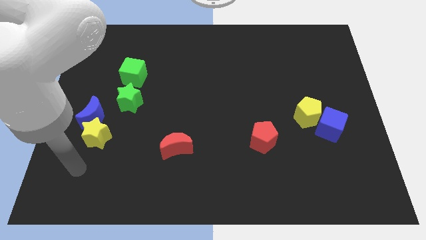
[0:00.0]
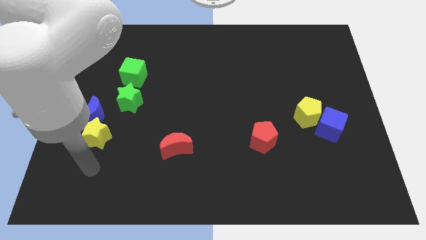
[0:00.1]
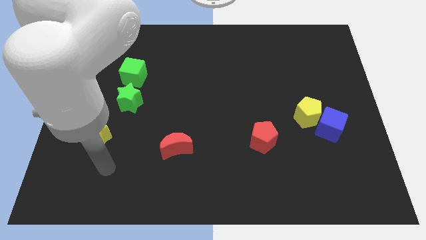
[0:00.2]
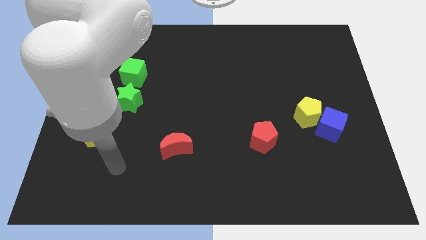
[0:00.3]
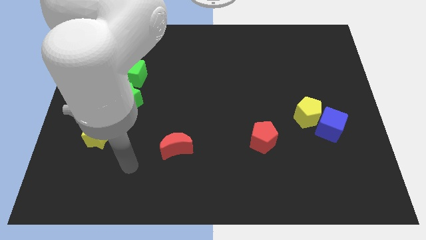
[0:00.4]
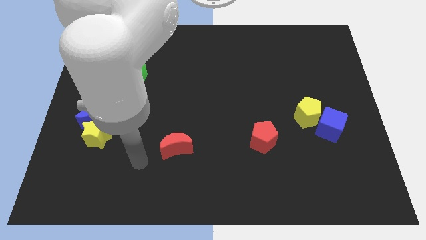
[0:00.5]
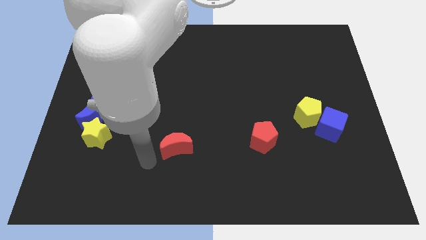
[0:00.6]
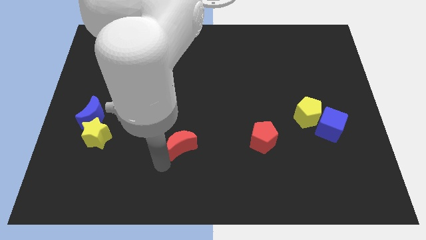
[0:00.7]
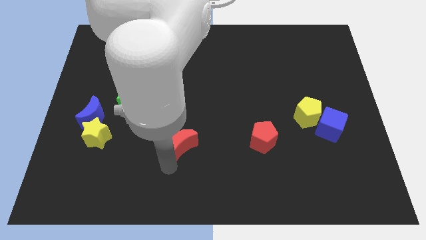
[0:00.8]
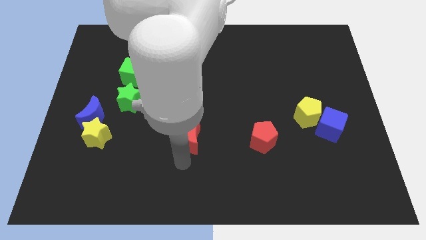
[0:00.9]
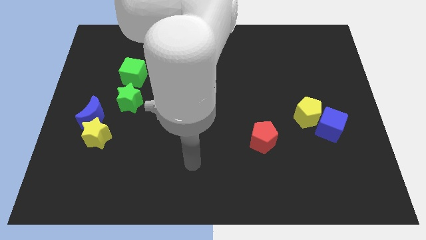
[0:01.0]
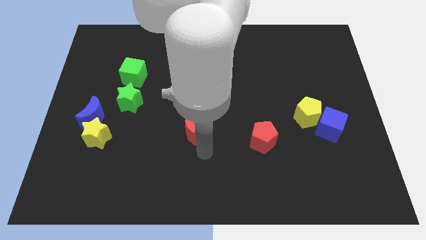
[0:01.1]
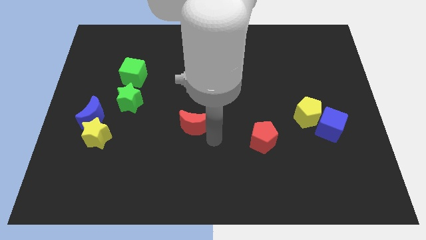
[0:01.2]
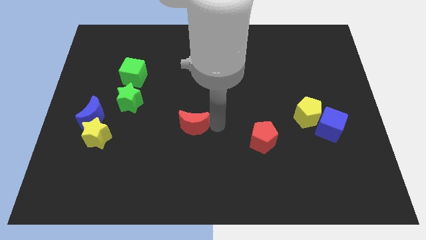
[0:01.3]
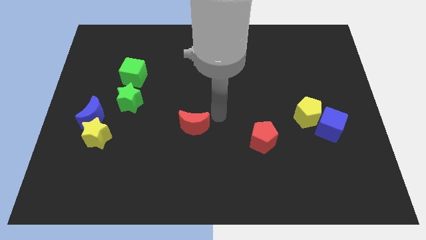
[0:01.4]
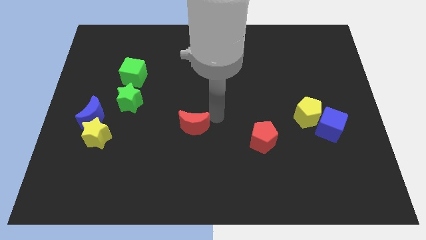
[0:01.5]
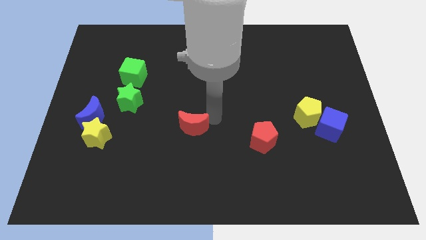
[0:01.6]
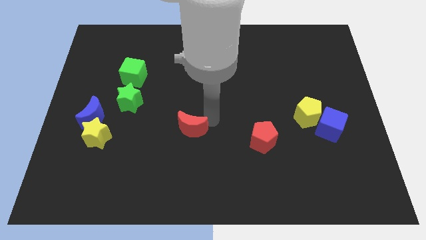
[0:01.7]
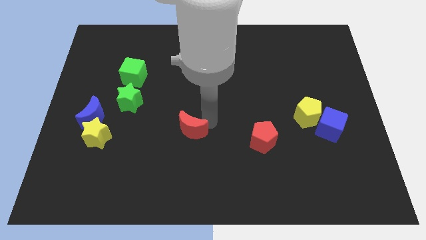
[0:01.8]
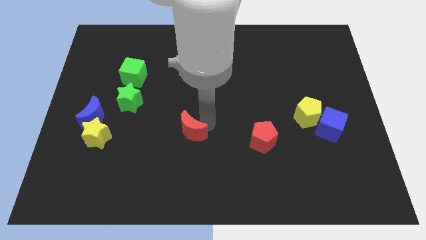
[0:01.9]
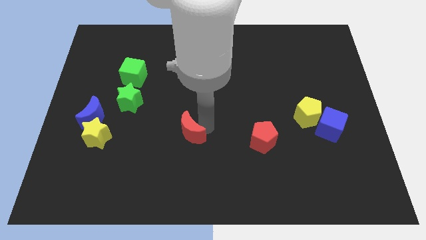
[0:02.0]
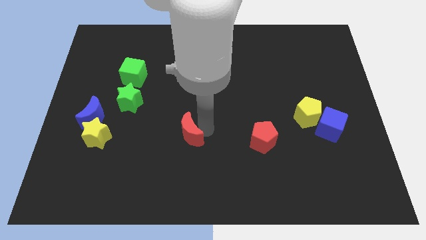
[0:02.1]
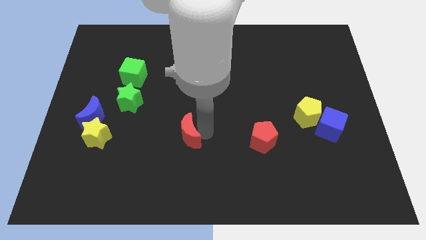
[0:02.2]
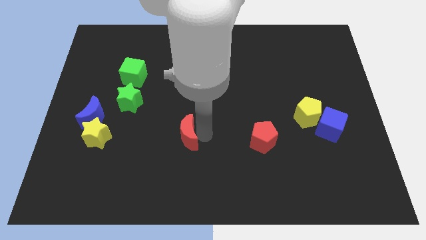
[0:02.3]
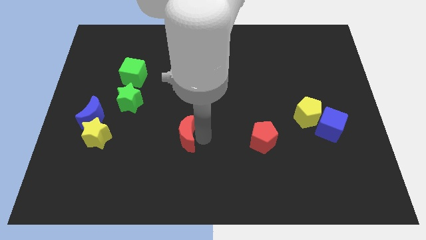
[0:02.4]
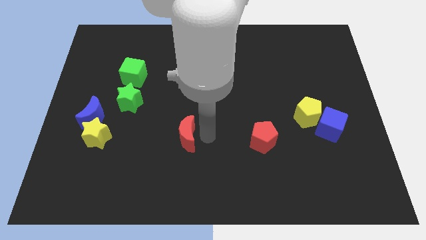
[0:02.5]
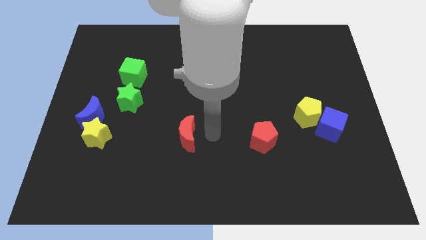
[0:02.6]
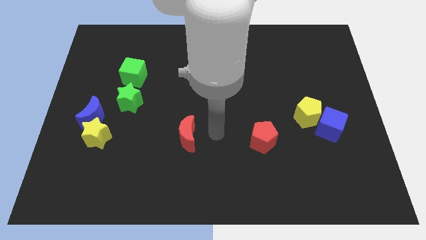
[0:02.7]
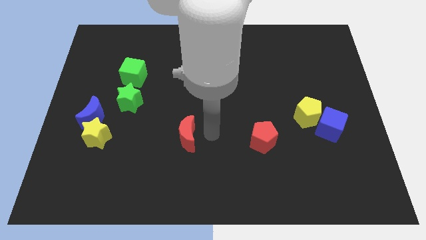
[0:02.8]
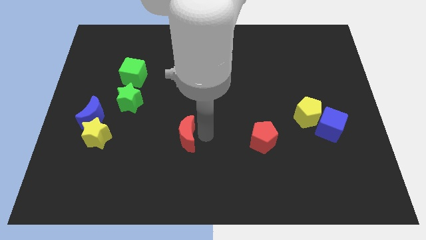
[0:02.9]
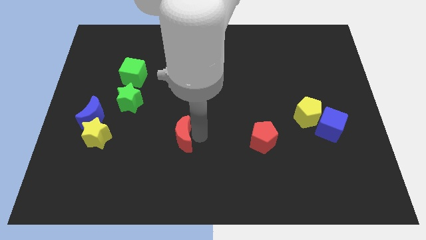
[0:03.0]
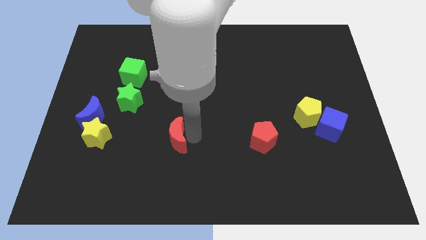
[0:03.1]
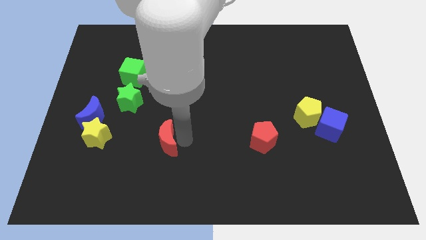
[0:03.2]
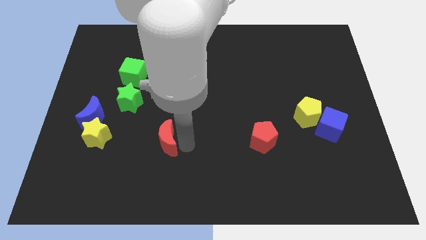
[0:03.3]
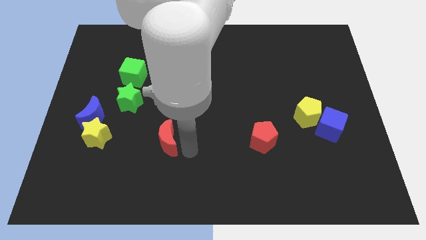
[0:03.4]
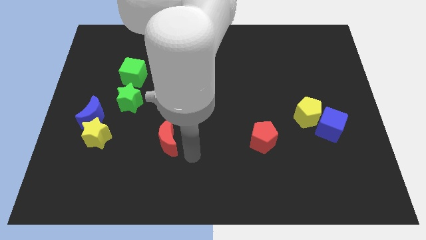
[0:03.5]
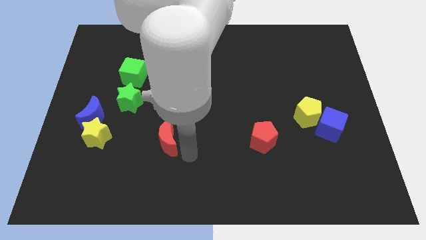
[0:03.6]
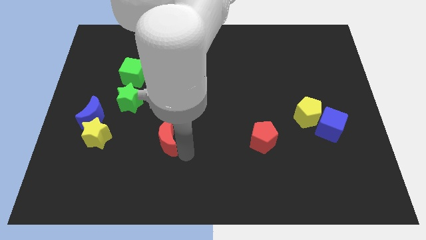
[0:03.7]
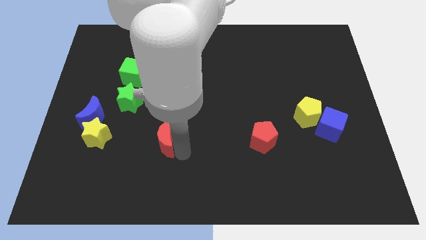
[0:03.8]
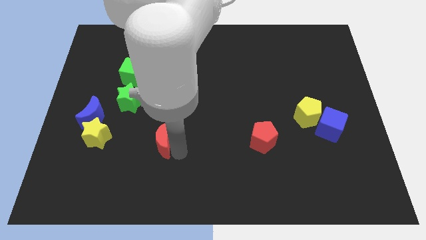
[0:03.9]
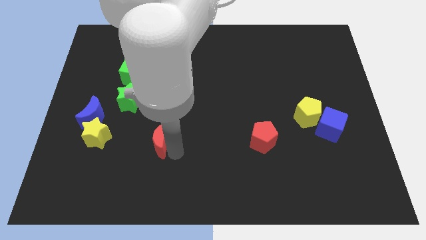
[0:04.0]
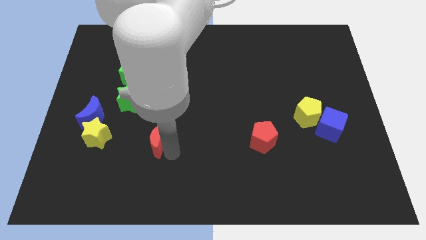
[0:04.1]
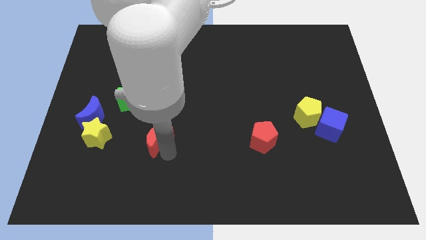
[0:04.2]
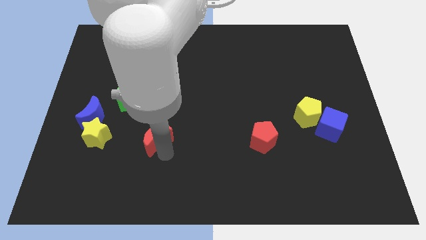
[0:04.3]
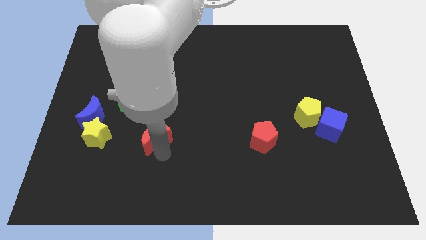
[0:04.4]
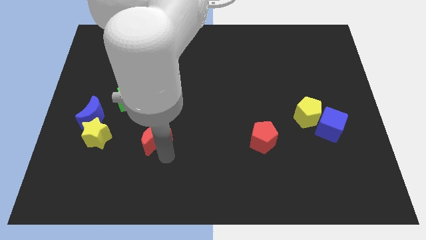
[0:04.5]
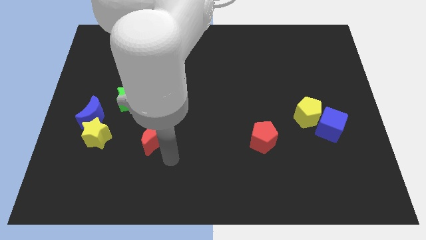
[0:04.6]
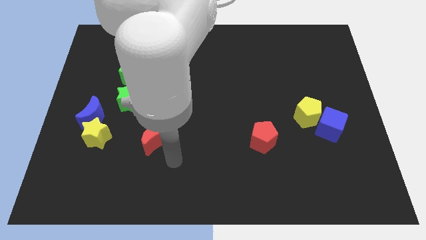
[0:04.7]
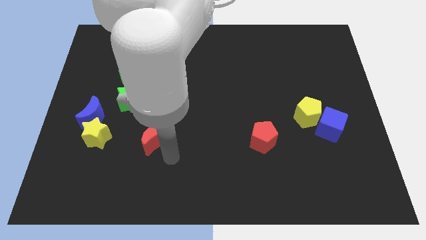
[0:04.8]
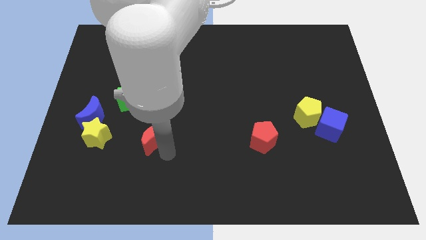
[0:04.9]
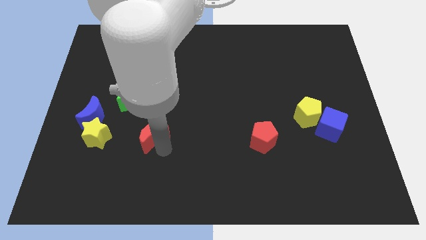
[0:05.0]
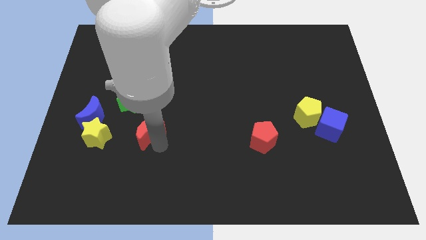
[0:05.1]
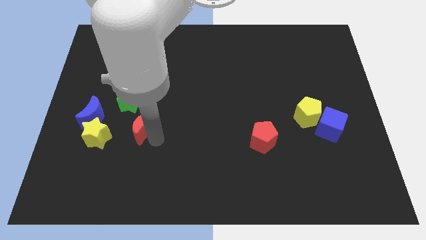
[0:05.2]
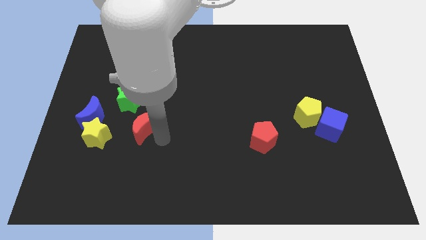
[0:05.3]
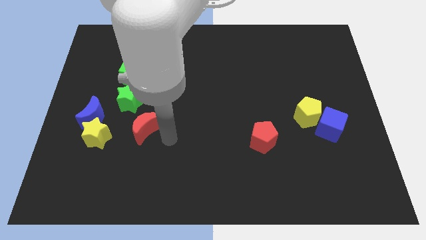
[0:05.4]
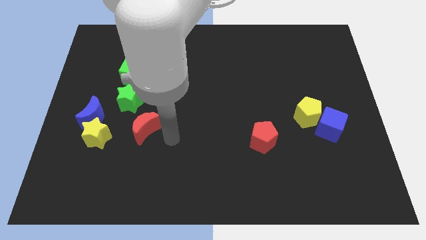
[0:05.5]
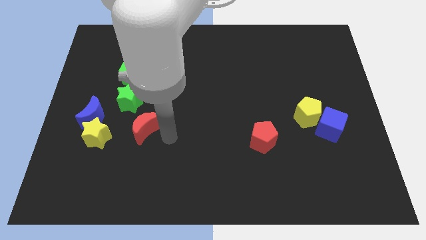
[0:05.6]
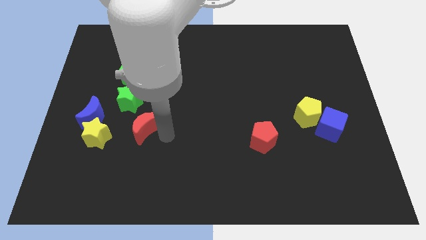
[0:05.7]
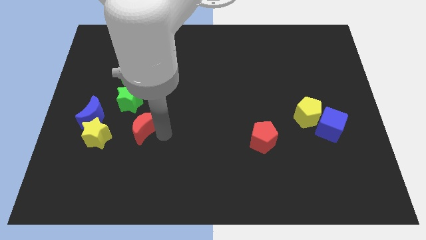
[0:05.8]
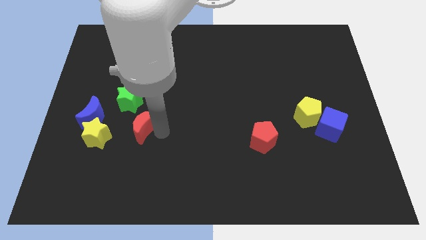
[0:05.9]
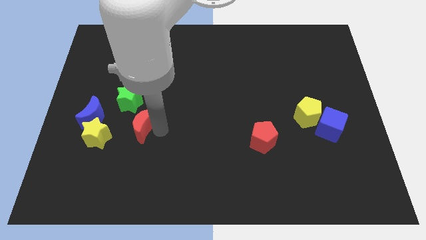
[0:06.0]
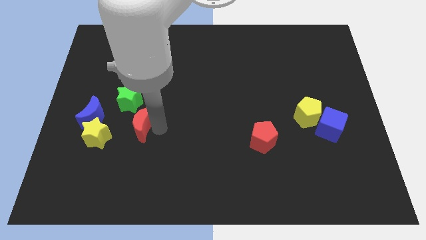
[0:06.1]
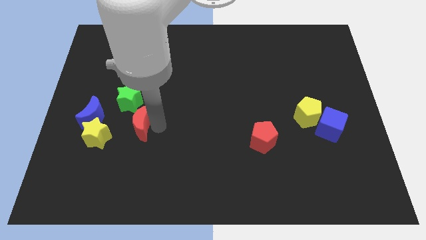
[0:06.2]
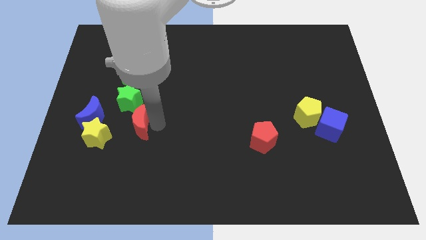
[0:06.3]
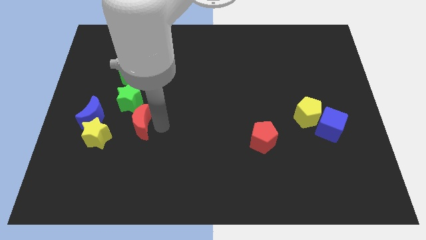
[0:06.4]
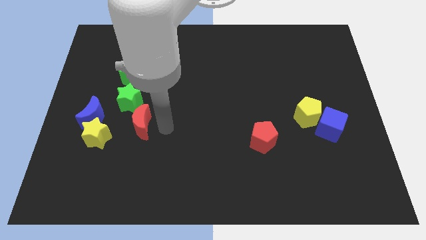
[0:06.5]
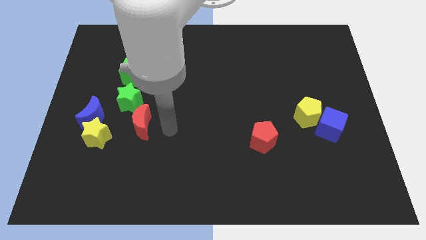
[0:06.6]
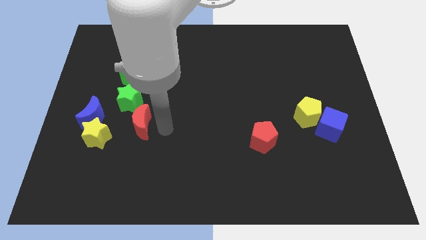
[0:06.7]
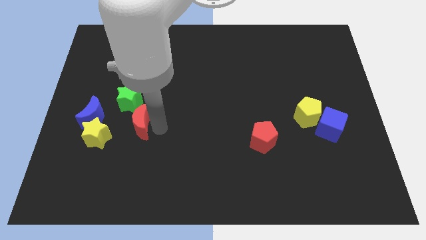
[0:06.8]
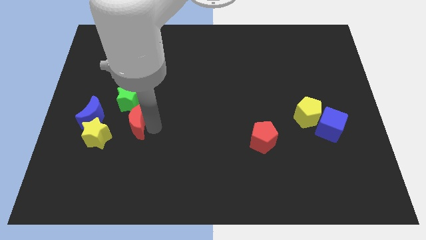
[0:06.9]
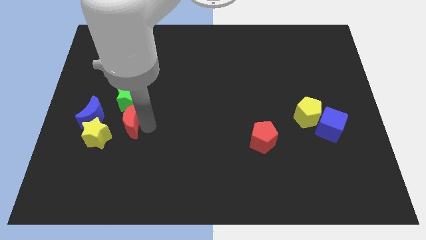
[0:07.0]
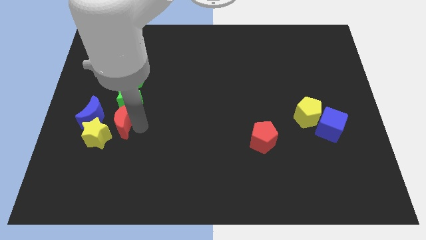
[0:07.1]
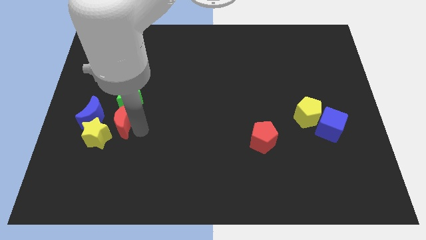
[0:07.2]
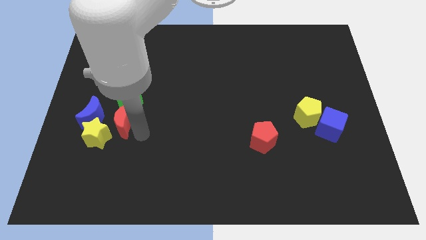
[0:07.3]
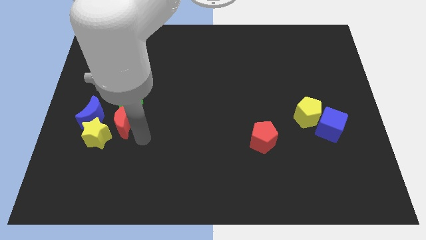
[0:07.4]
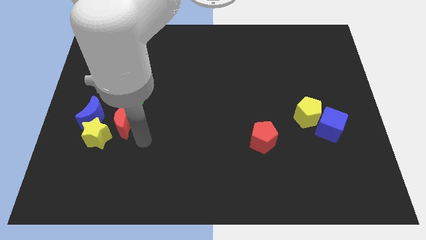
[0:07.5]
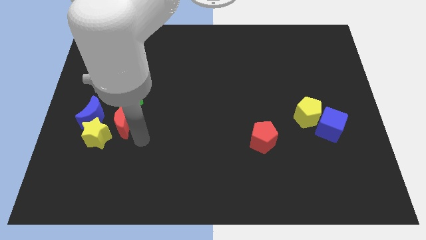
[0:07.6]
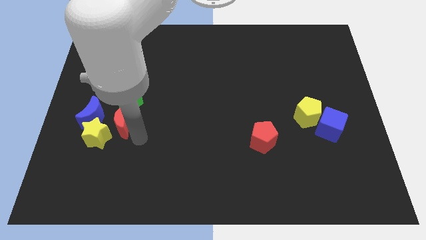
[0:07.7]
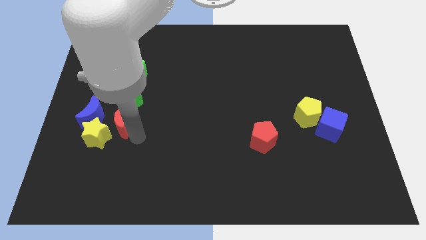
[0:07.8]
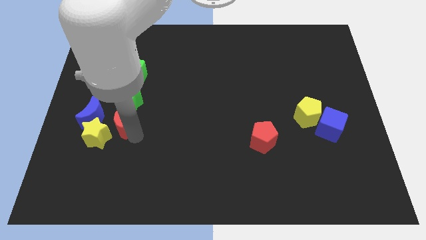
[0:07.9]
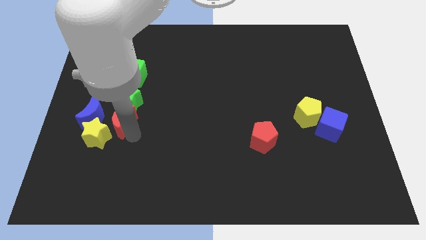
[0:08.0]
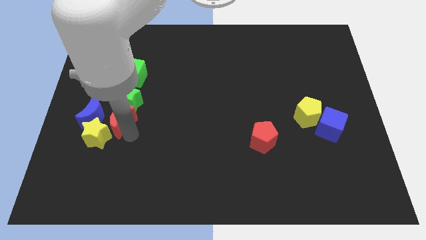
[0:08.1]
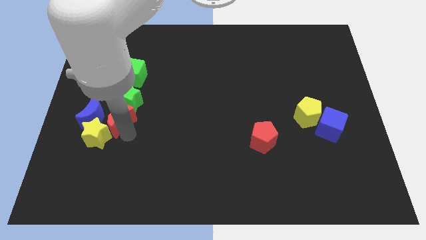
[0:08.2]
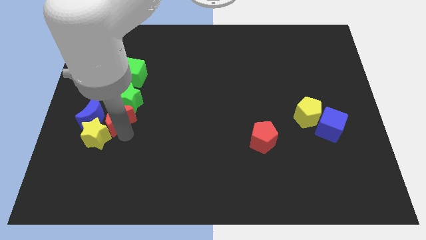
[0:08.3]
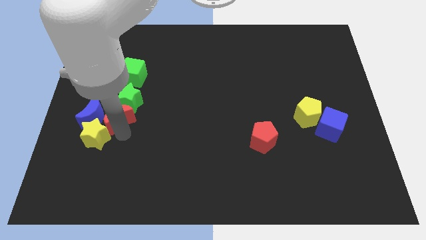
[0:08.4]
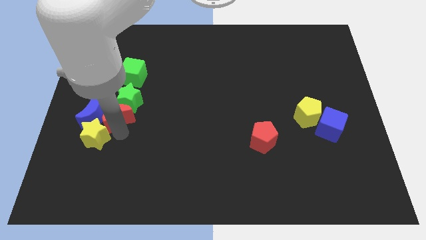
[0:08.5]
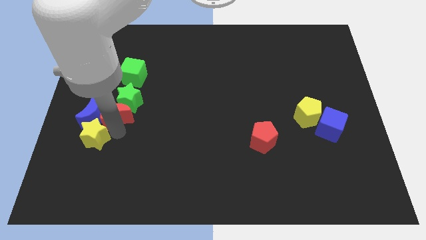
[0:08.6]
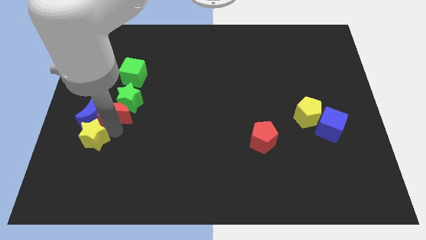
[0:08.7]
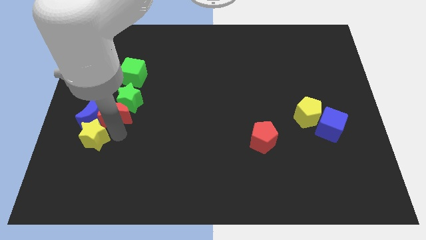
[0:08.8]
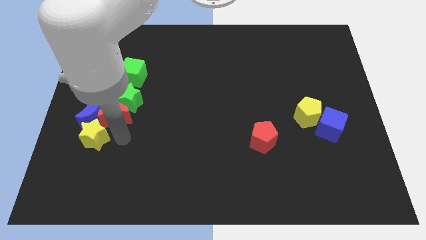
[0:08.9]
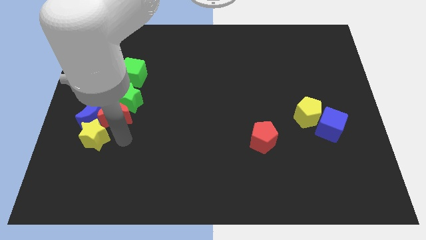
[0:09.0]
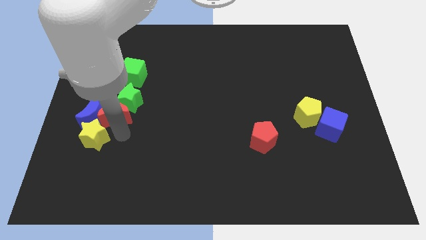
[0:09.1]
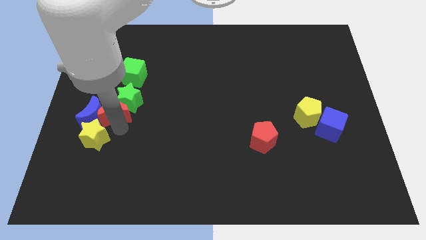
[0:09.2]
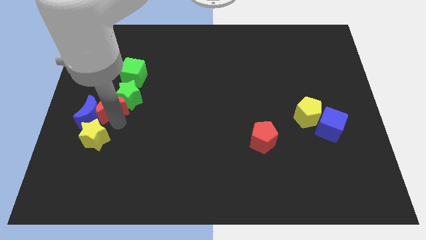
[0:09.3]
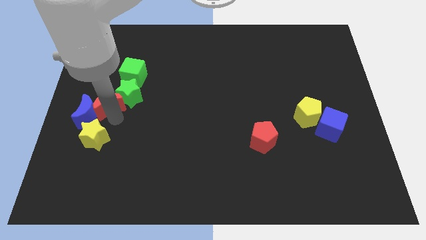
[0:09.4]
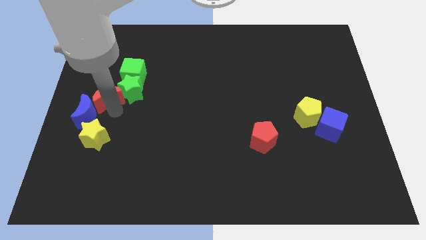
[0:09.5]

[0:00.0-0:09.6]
move the red moon to the center left
